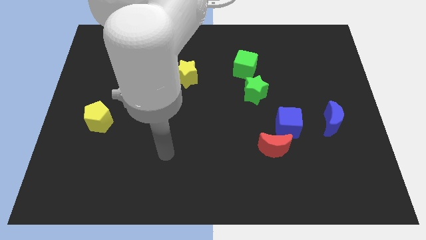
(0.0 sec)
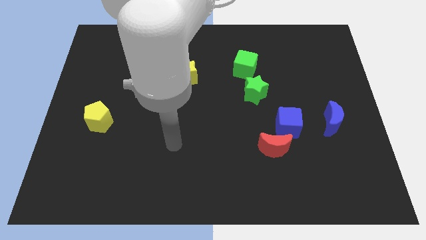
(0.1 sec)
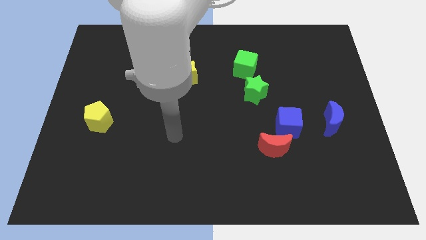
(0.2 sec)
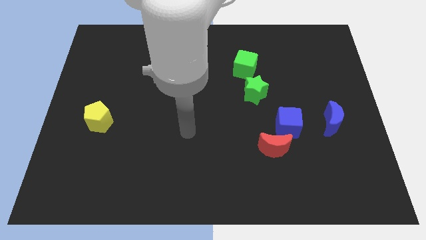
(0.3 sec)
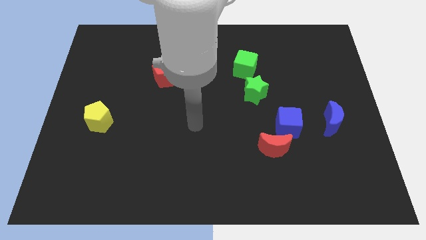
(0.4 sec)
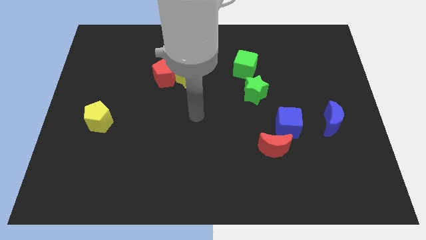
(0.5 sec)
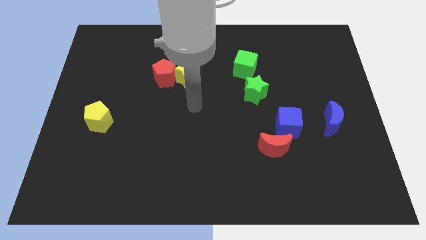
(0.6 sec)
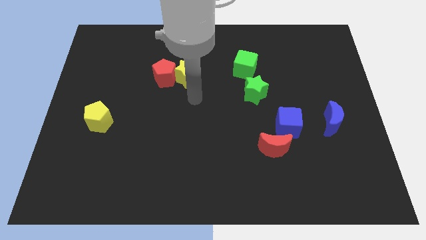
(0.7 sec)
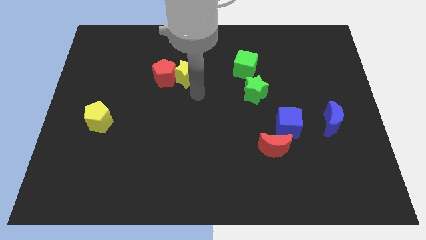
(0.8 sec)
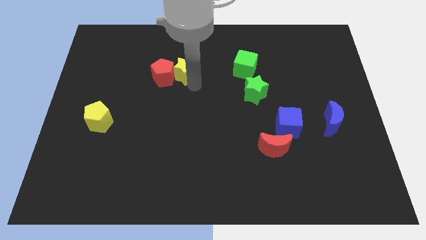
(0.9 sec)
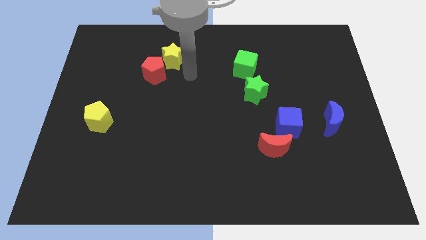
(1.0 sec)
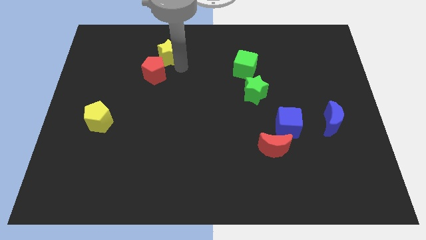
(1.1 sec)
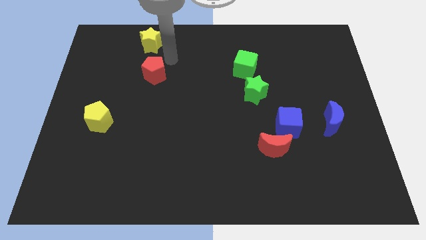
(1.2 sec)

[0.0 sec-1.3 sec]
pull the red pentagon apart from the yellow star

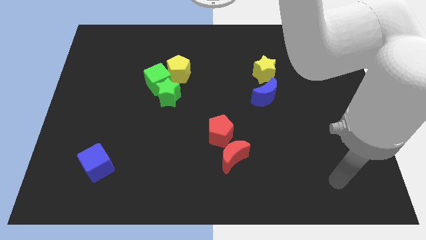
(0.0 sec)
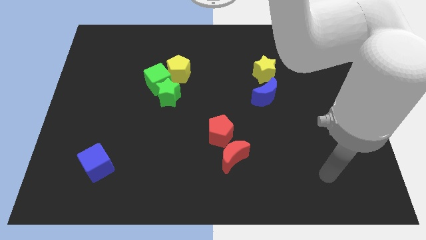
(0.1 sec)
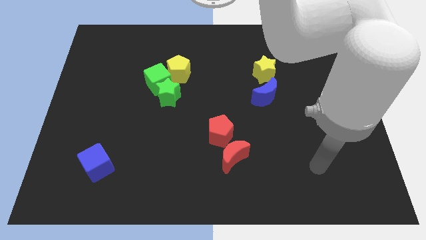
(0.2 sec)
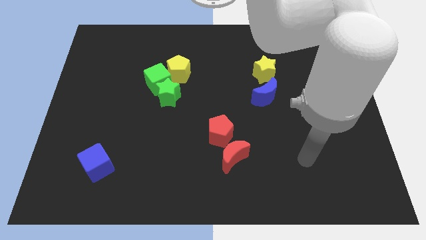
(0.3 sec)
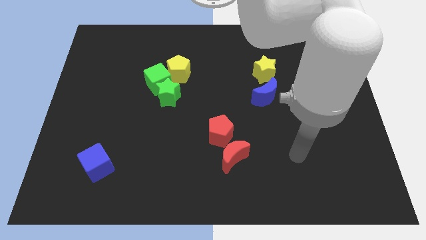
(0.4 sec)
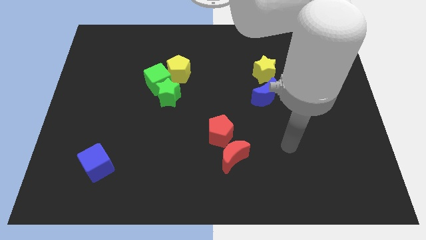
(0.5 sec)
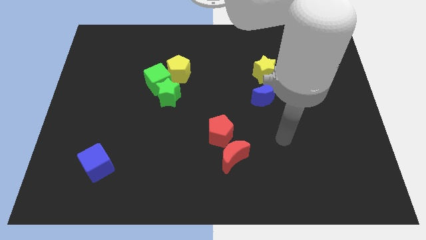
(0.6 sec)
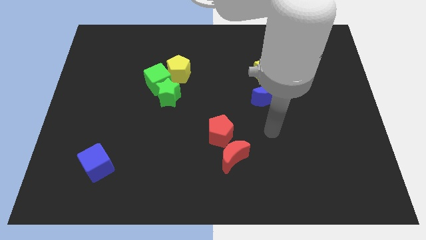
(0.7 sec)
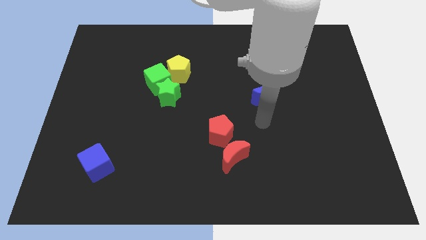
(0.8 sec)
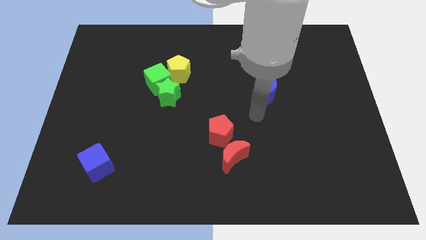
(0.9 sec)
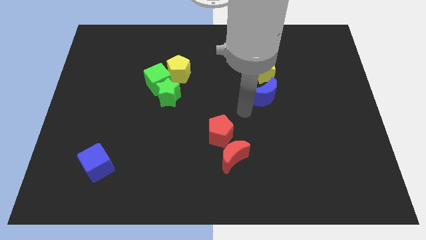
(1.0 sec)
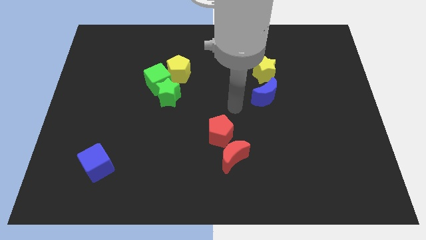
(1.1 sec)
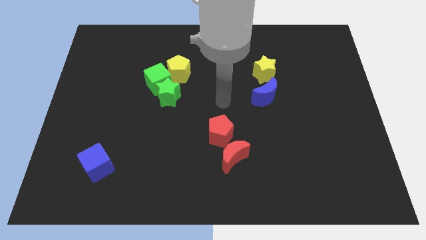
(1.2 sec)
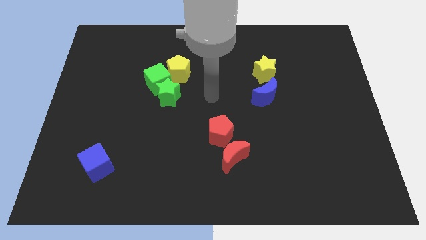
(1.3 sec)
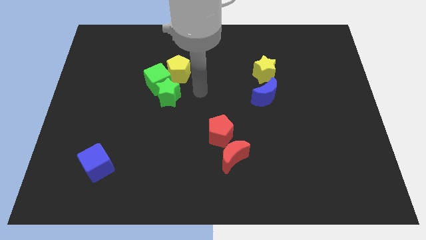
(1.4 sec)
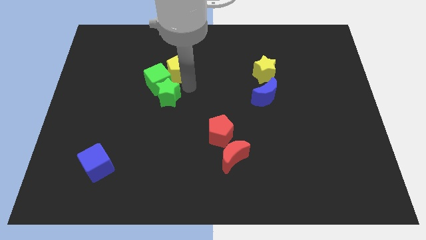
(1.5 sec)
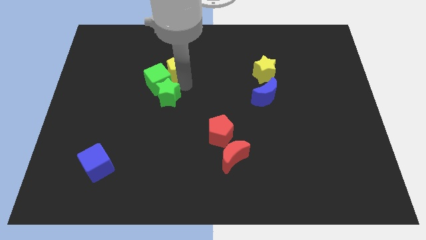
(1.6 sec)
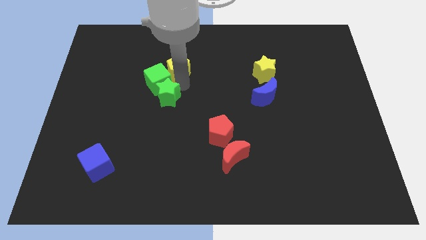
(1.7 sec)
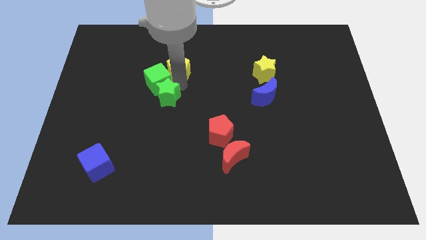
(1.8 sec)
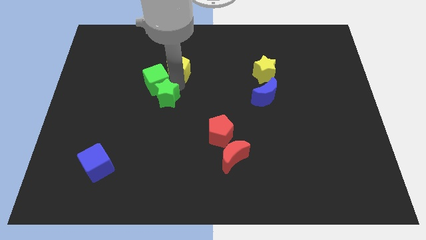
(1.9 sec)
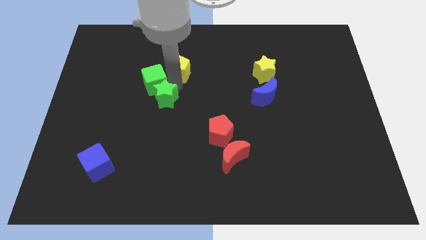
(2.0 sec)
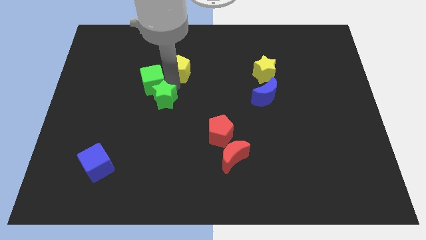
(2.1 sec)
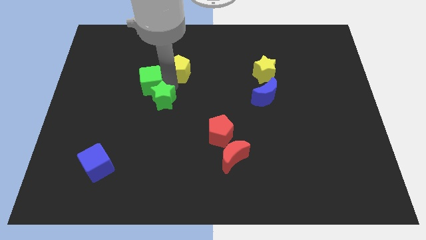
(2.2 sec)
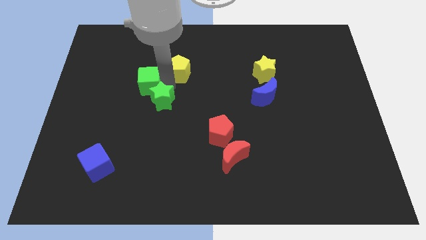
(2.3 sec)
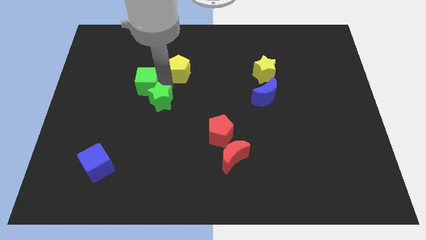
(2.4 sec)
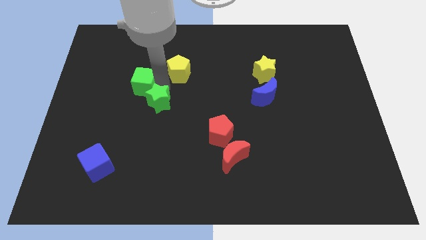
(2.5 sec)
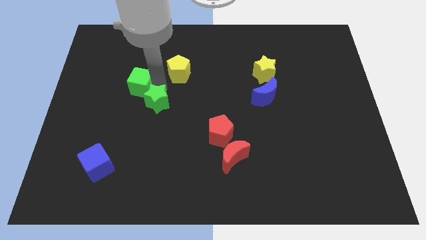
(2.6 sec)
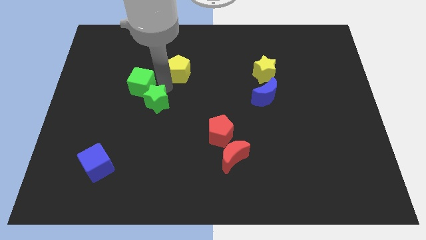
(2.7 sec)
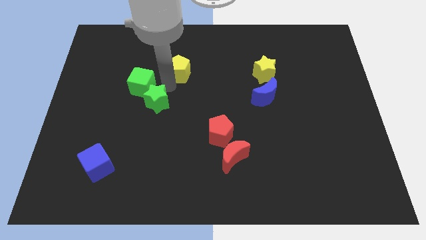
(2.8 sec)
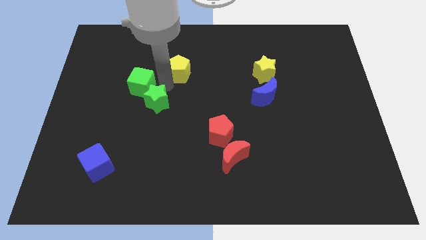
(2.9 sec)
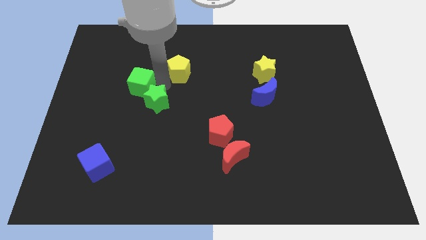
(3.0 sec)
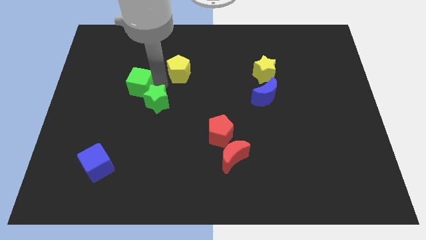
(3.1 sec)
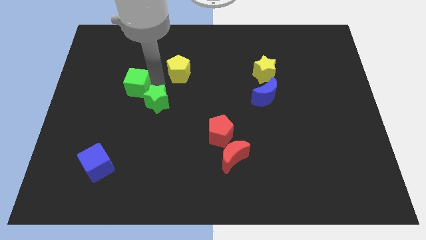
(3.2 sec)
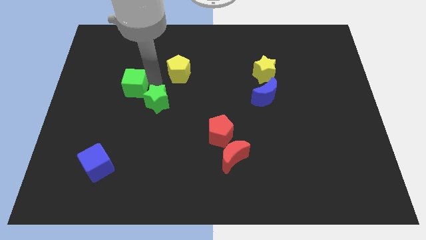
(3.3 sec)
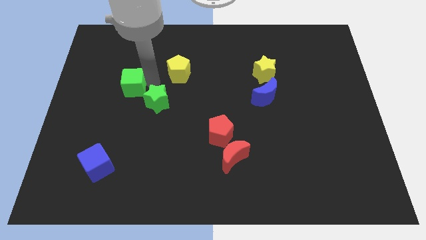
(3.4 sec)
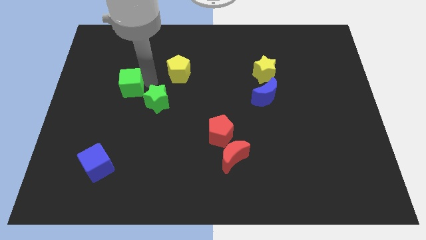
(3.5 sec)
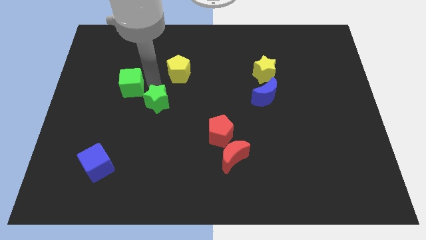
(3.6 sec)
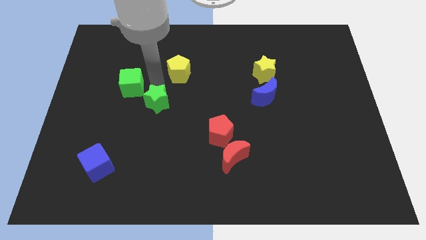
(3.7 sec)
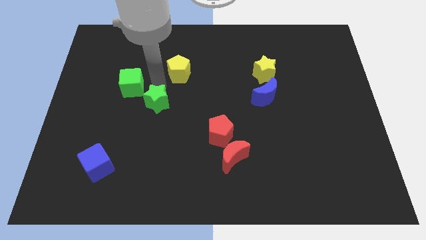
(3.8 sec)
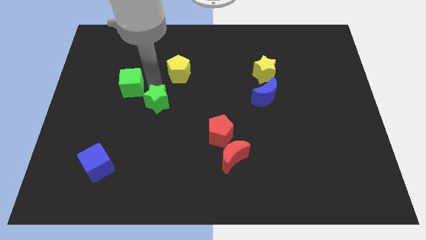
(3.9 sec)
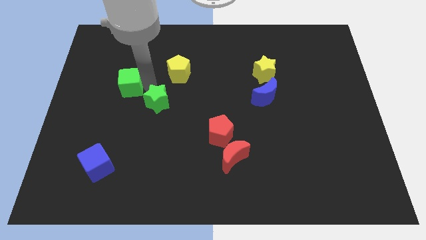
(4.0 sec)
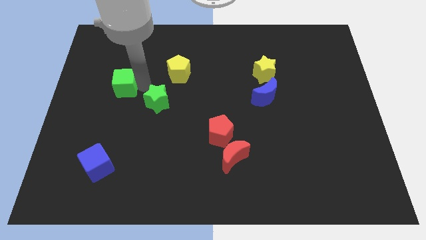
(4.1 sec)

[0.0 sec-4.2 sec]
pull the green cube apart from the green star and yellow pentagon

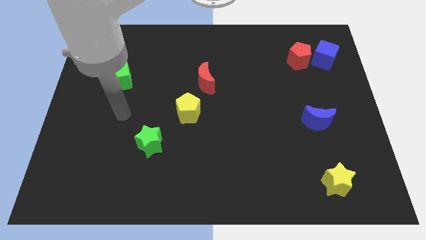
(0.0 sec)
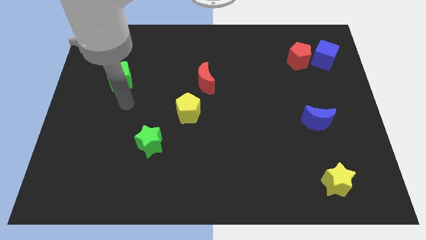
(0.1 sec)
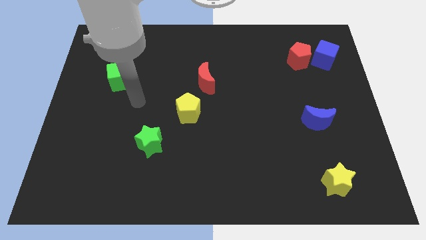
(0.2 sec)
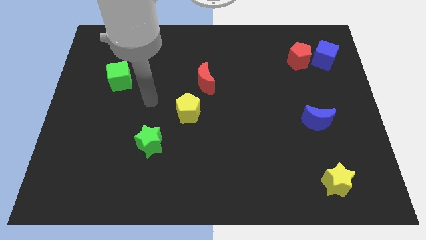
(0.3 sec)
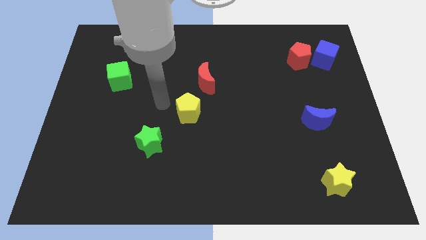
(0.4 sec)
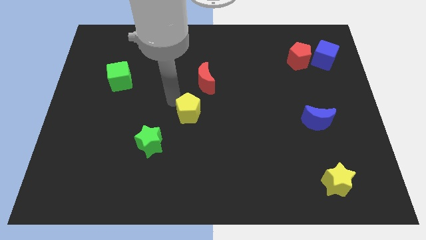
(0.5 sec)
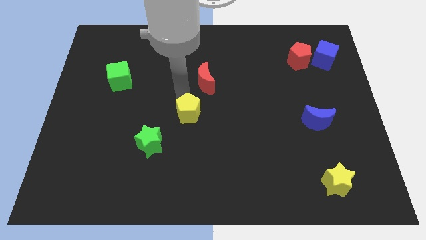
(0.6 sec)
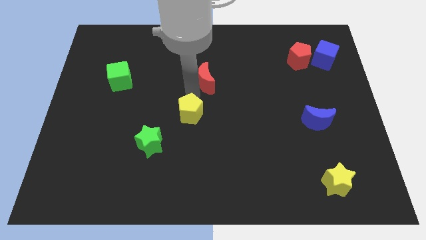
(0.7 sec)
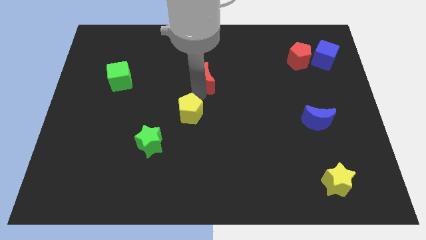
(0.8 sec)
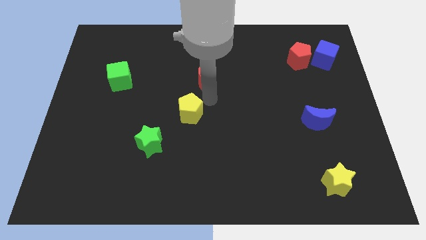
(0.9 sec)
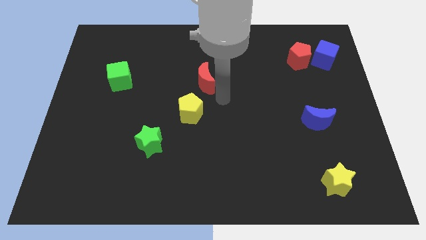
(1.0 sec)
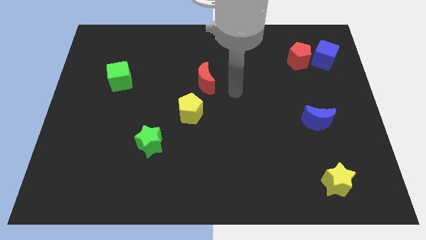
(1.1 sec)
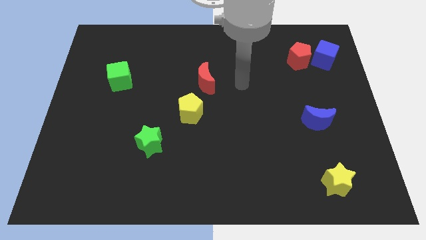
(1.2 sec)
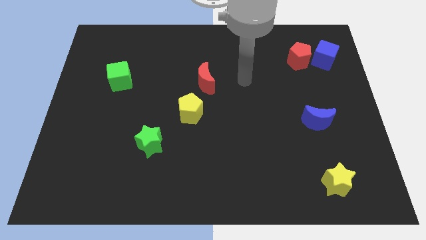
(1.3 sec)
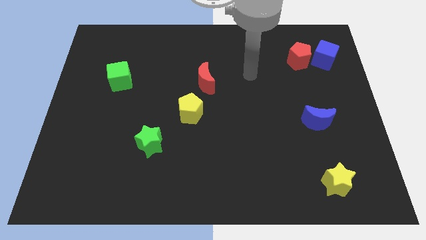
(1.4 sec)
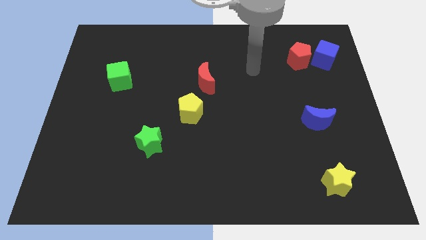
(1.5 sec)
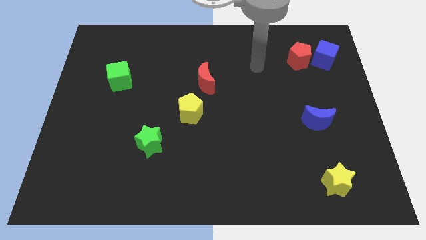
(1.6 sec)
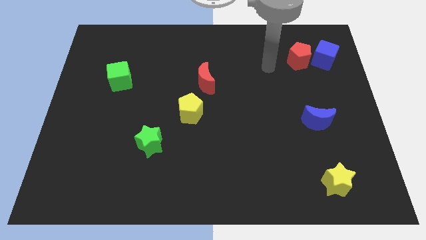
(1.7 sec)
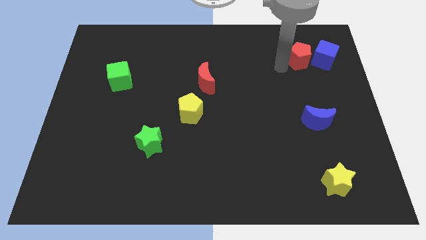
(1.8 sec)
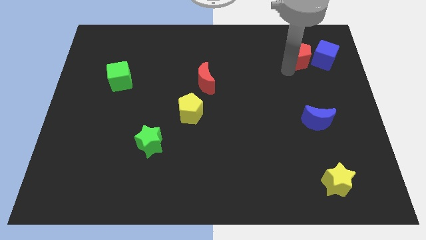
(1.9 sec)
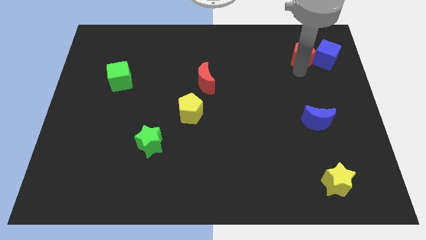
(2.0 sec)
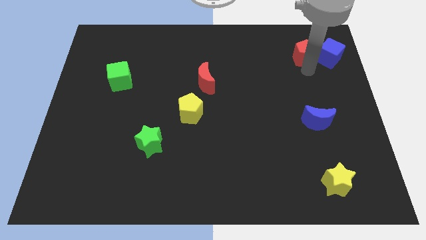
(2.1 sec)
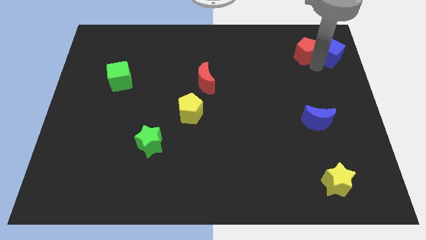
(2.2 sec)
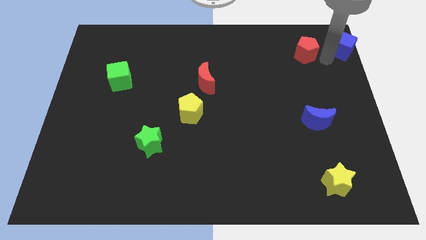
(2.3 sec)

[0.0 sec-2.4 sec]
pull the red pentagon apart from the blue cube

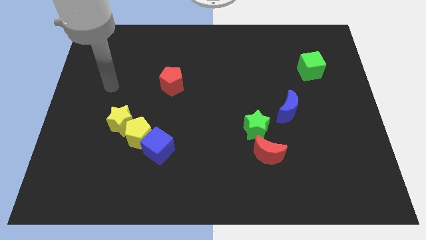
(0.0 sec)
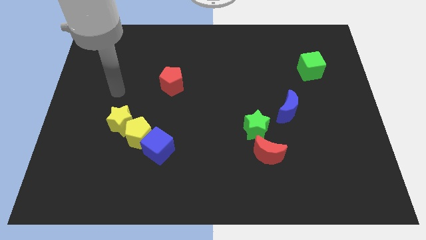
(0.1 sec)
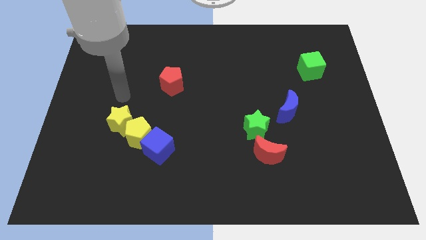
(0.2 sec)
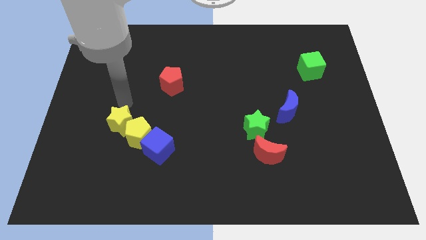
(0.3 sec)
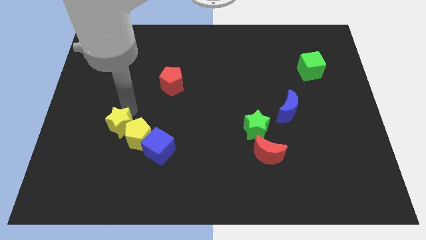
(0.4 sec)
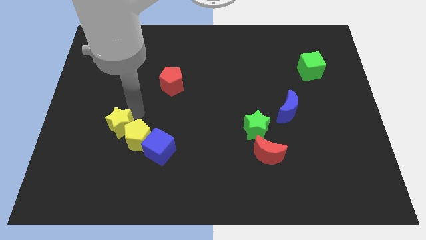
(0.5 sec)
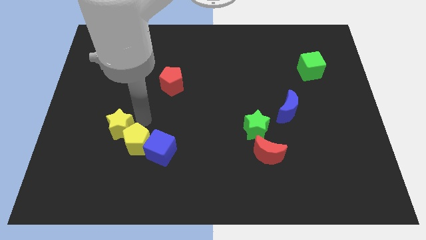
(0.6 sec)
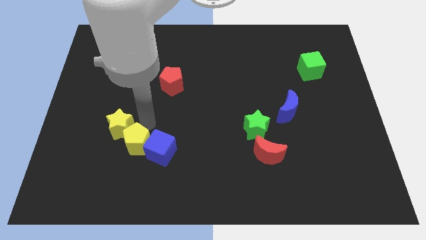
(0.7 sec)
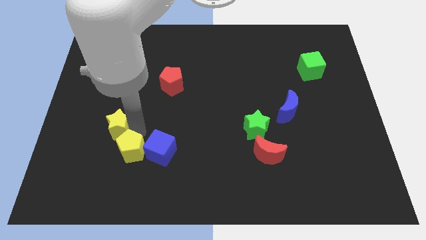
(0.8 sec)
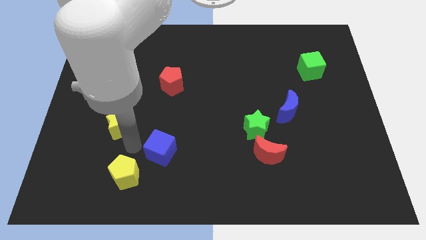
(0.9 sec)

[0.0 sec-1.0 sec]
move the yellow star away from the yellow pentagon

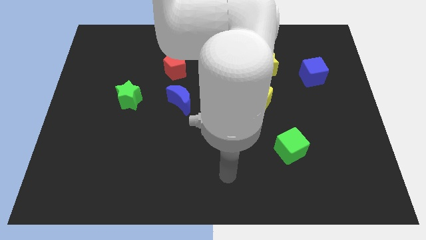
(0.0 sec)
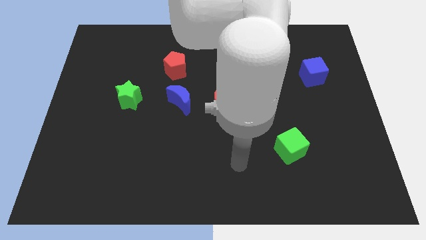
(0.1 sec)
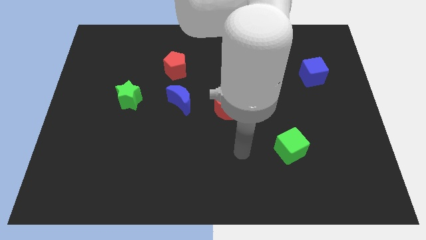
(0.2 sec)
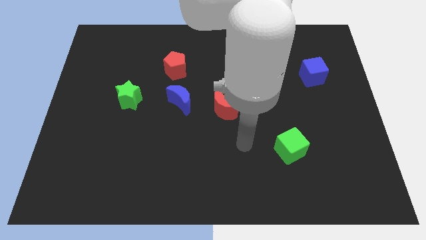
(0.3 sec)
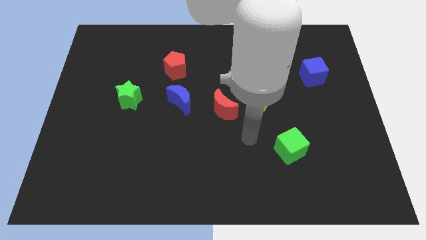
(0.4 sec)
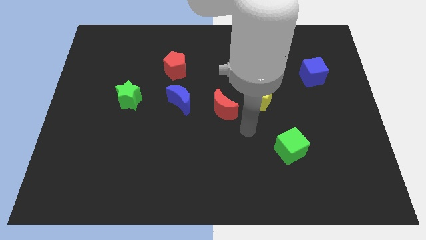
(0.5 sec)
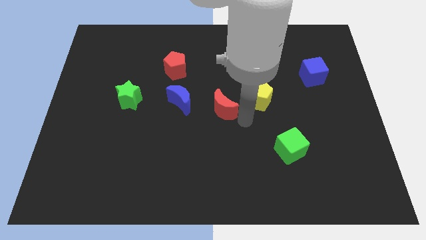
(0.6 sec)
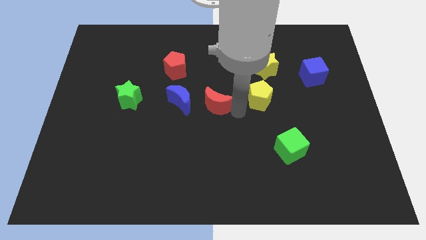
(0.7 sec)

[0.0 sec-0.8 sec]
separate the yellow pentagon from the red moon
